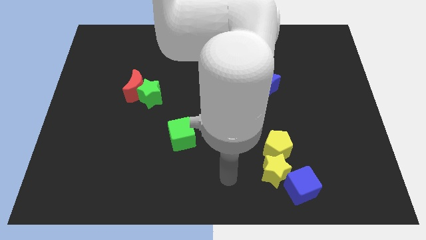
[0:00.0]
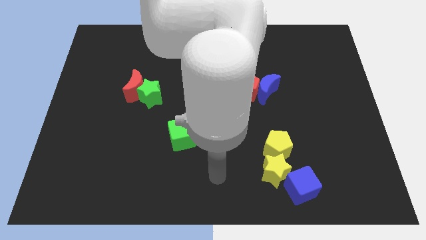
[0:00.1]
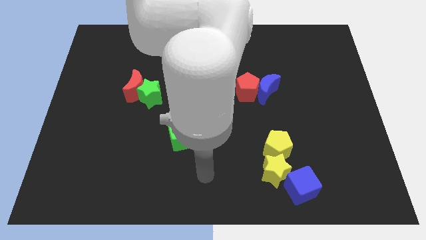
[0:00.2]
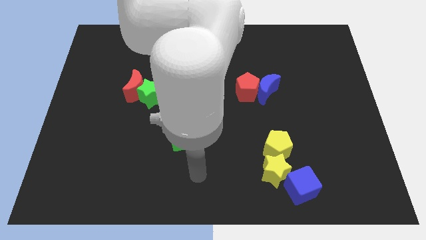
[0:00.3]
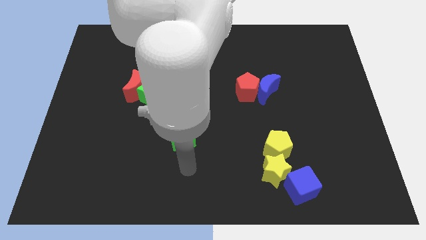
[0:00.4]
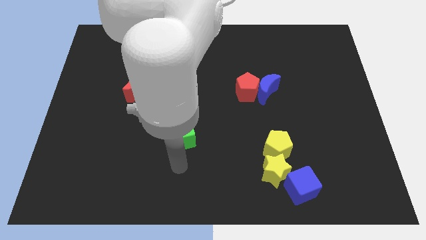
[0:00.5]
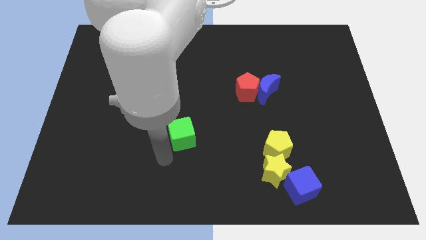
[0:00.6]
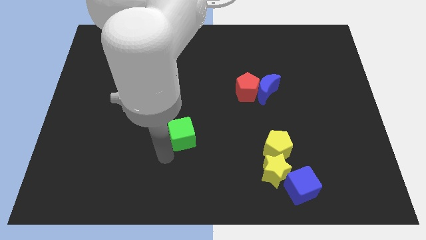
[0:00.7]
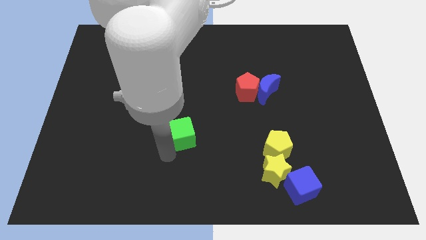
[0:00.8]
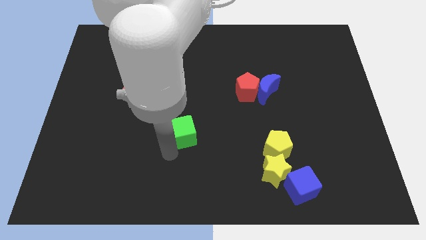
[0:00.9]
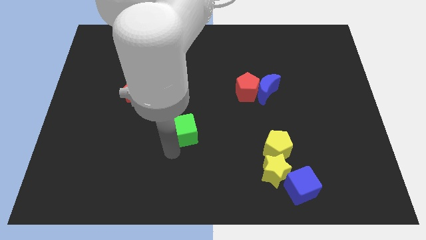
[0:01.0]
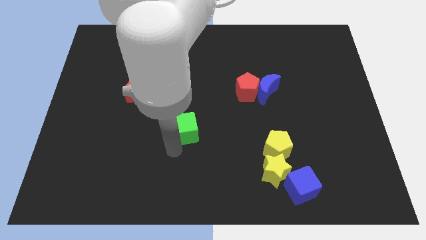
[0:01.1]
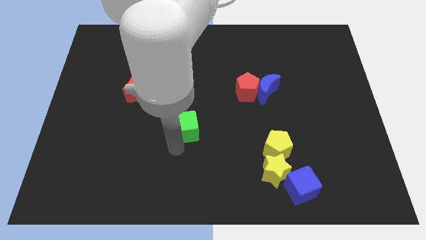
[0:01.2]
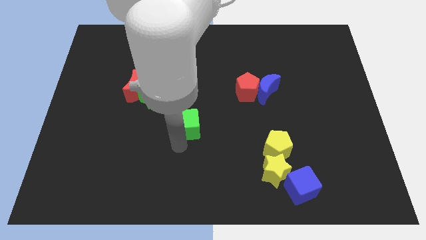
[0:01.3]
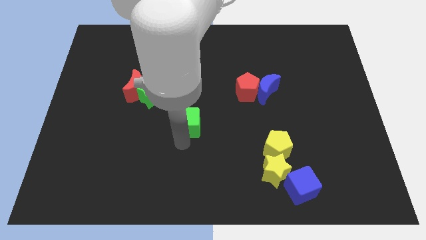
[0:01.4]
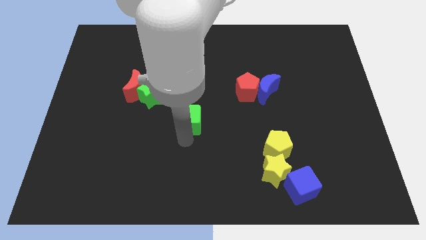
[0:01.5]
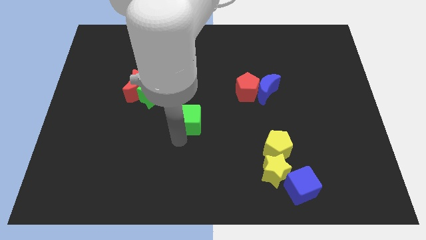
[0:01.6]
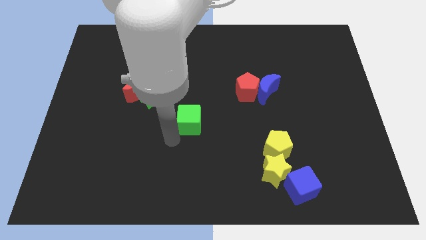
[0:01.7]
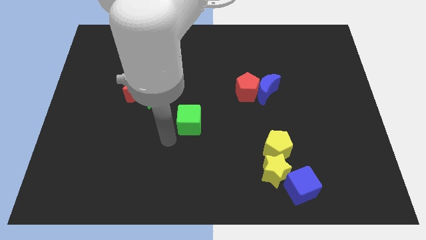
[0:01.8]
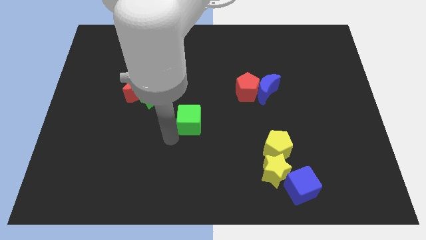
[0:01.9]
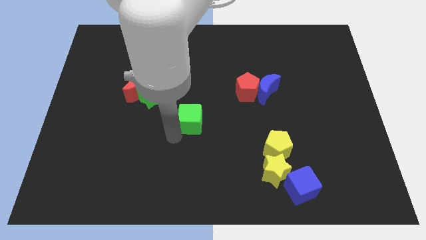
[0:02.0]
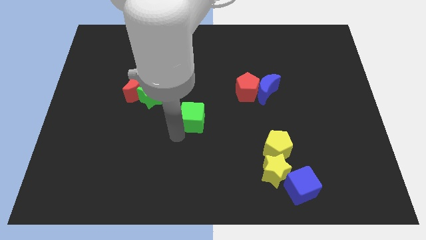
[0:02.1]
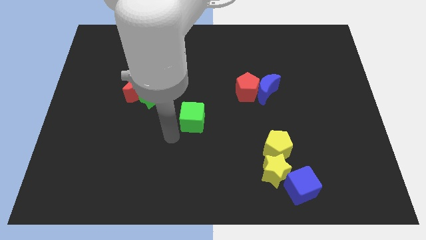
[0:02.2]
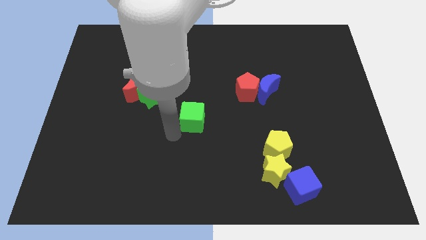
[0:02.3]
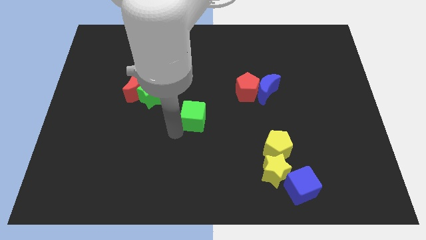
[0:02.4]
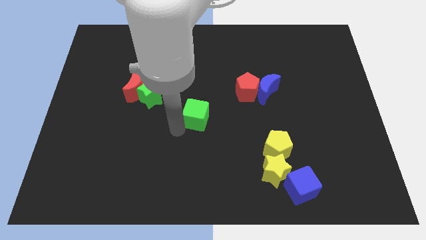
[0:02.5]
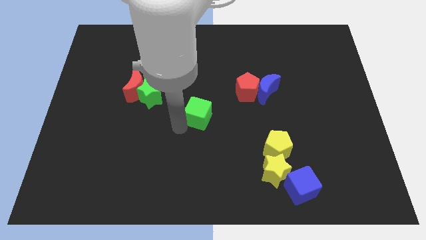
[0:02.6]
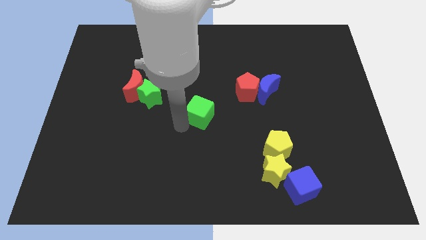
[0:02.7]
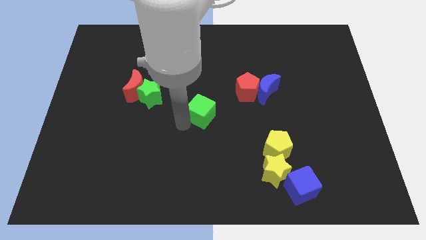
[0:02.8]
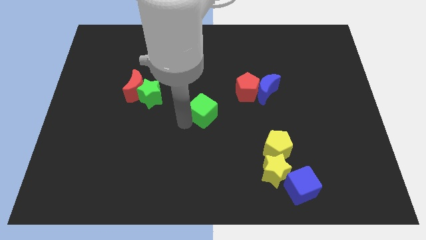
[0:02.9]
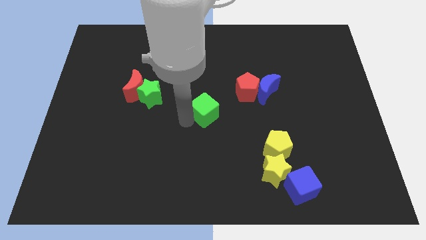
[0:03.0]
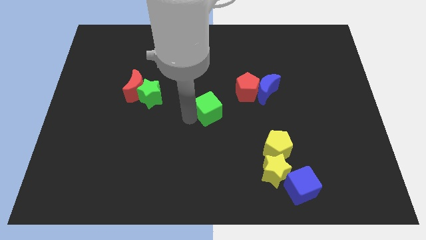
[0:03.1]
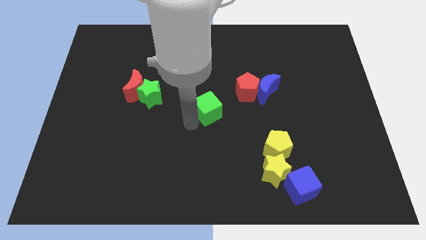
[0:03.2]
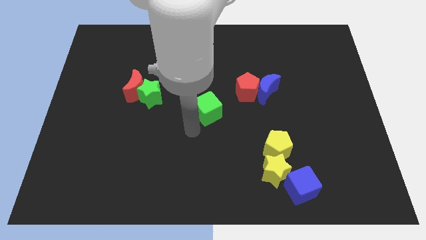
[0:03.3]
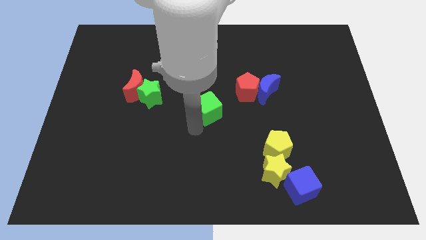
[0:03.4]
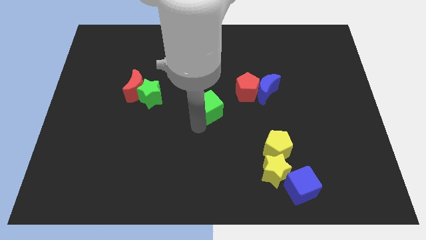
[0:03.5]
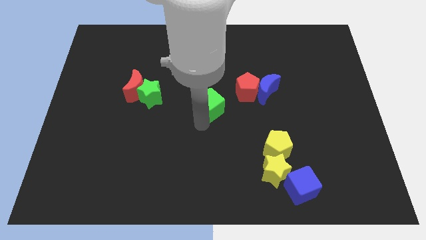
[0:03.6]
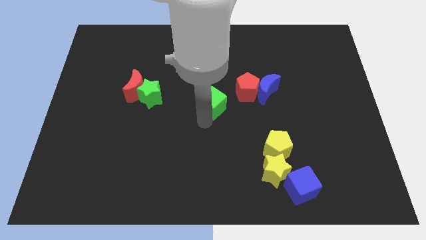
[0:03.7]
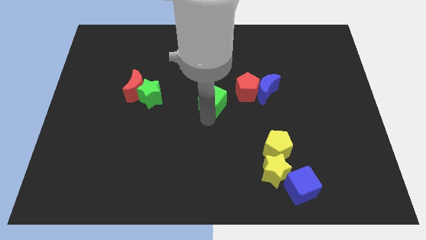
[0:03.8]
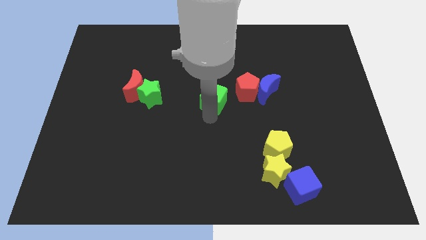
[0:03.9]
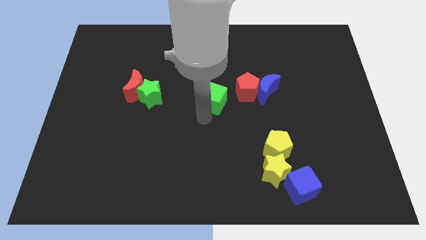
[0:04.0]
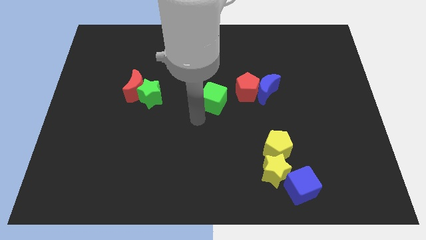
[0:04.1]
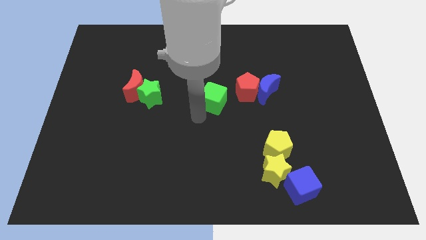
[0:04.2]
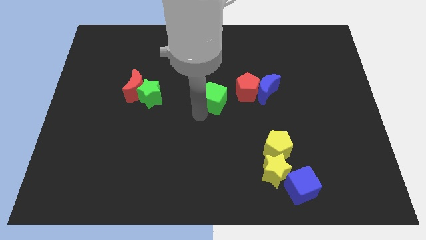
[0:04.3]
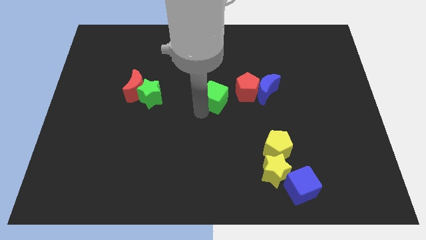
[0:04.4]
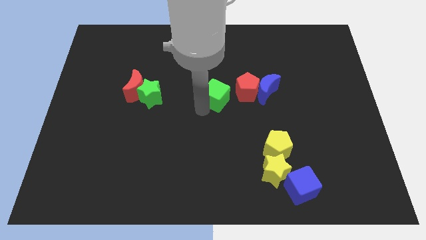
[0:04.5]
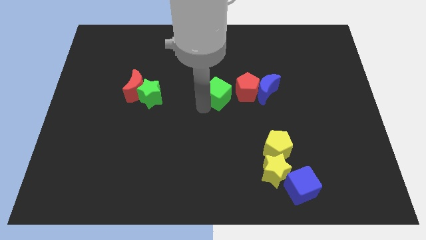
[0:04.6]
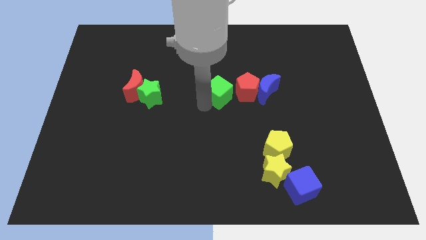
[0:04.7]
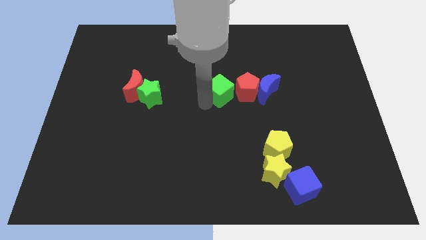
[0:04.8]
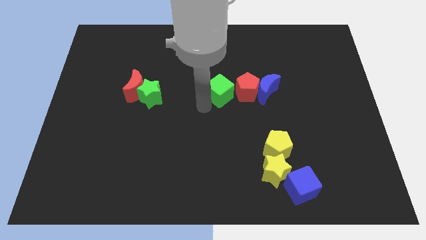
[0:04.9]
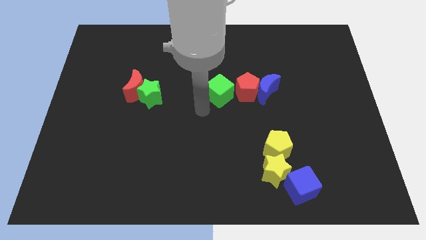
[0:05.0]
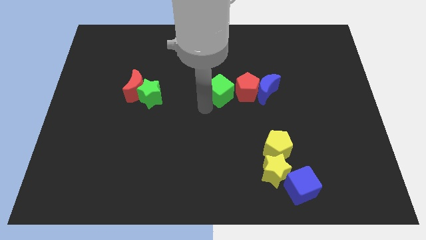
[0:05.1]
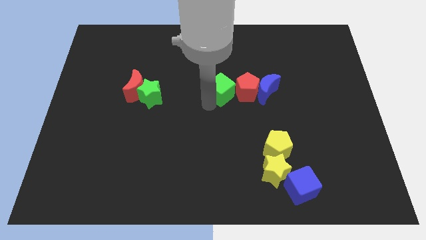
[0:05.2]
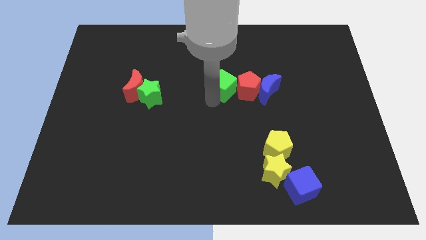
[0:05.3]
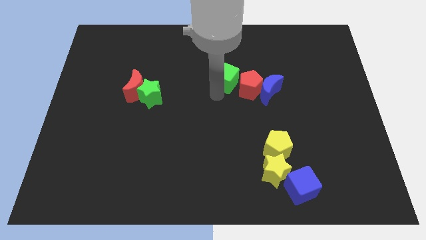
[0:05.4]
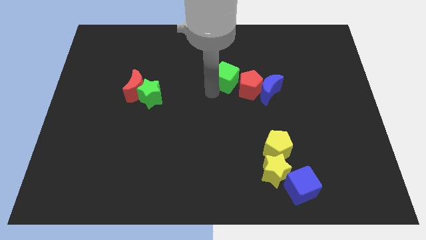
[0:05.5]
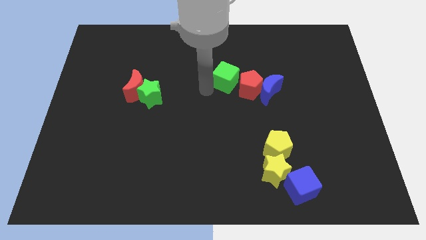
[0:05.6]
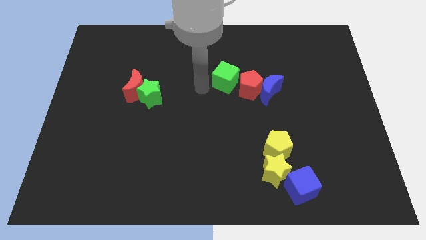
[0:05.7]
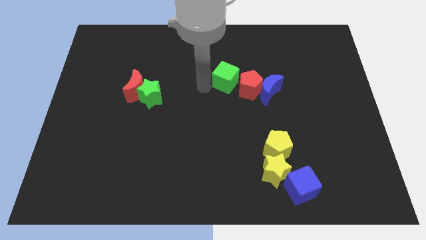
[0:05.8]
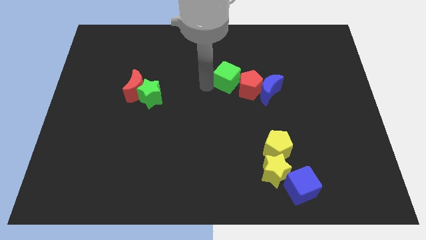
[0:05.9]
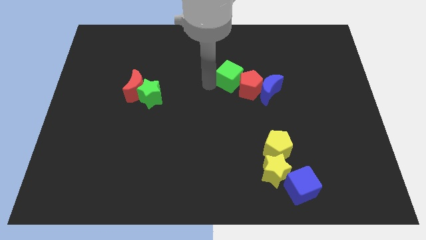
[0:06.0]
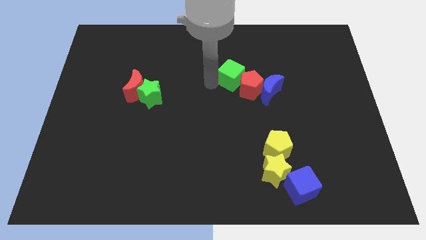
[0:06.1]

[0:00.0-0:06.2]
push the green cube up and then right

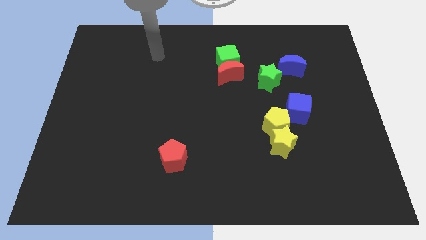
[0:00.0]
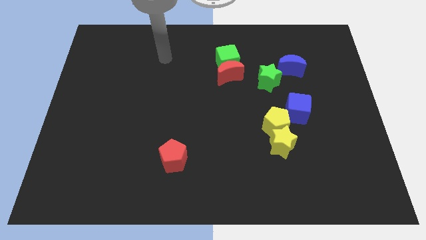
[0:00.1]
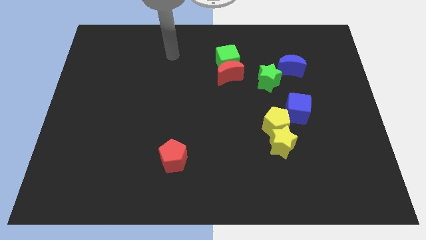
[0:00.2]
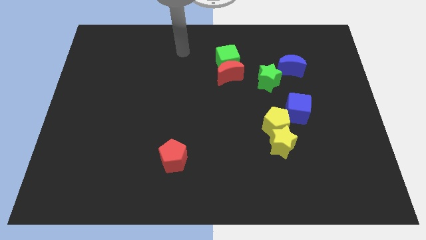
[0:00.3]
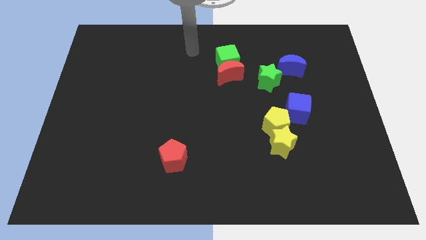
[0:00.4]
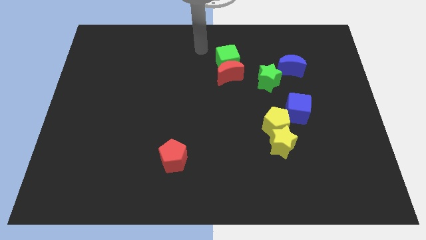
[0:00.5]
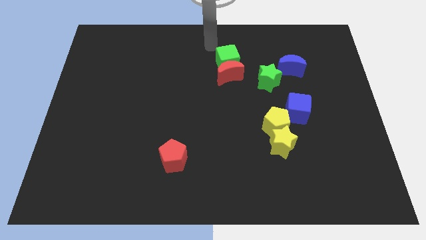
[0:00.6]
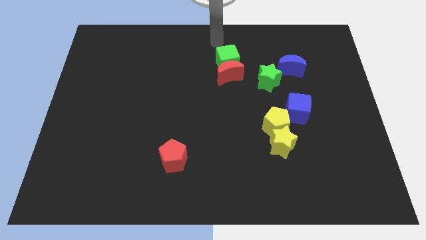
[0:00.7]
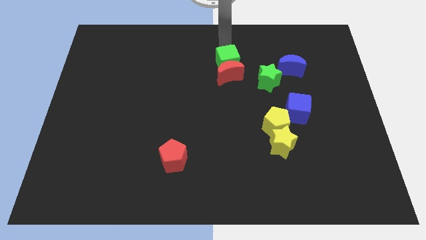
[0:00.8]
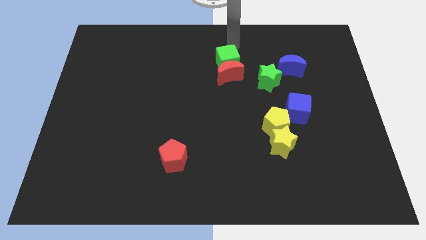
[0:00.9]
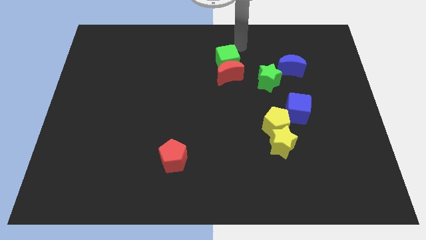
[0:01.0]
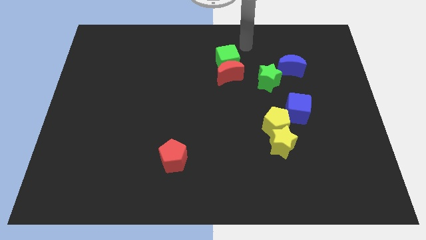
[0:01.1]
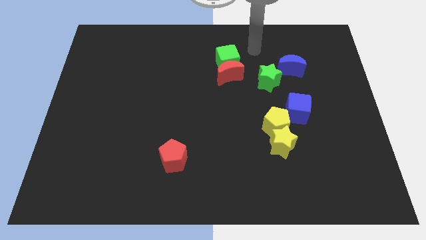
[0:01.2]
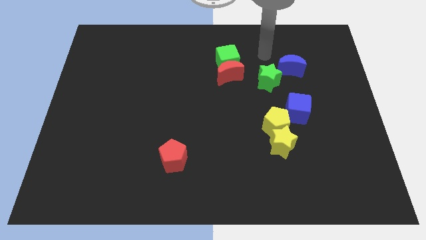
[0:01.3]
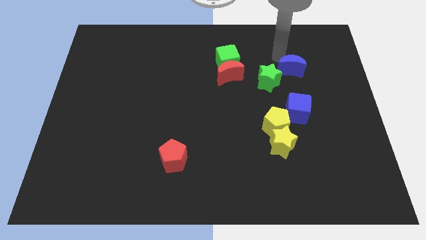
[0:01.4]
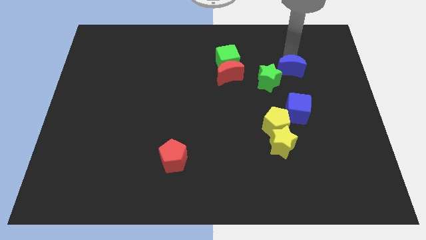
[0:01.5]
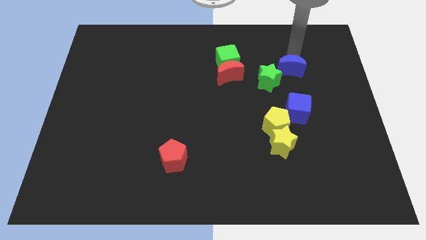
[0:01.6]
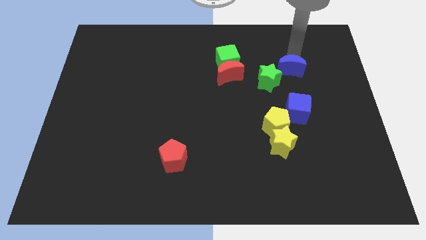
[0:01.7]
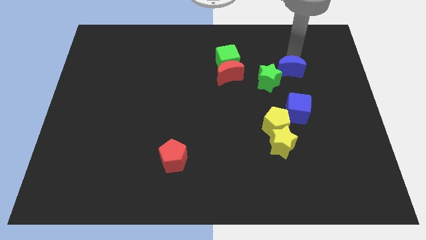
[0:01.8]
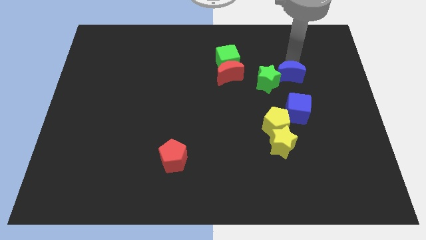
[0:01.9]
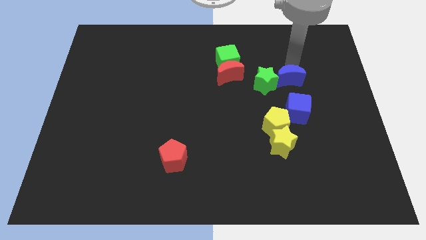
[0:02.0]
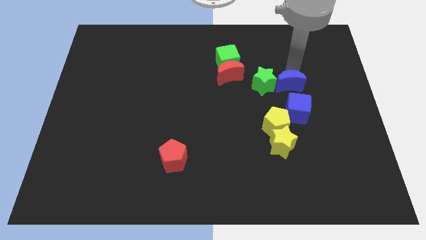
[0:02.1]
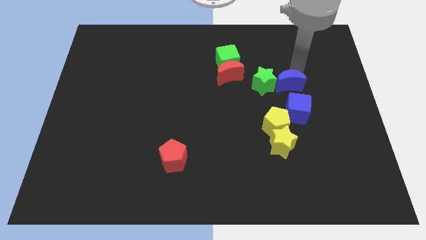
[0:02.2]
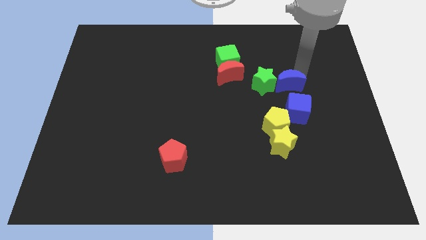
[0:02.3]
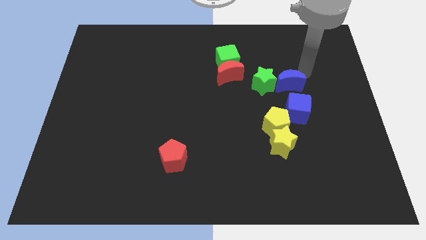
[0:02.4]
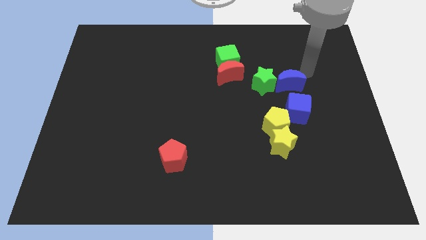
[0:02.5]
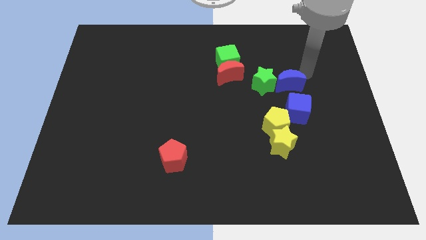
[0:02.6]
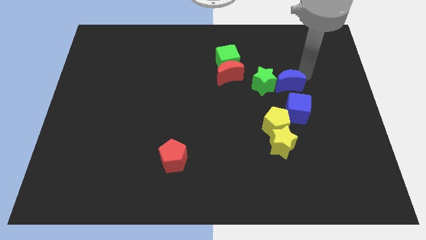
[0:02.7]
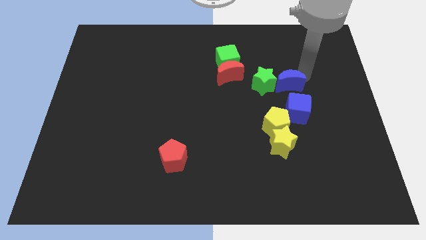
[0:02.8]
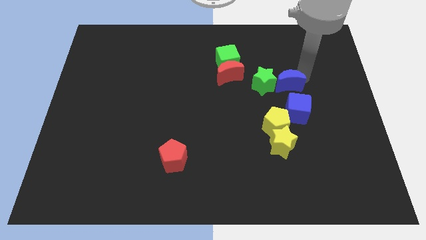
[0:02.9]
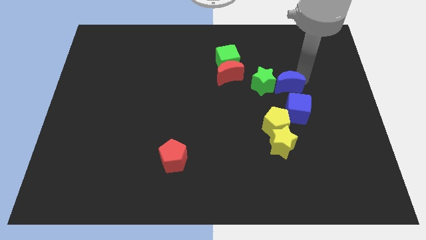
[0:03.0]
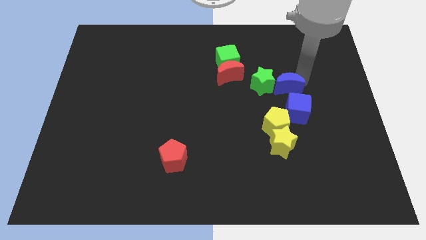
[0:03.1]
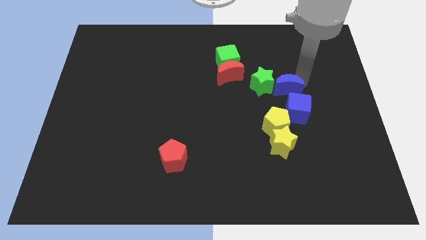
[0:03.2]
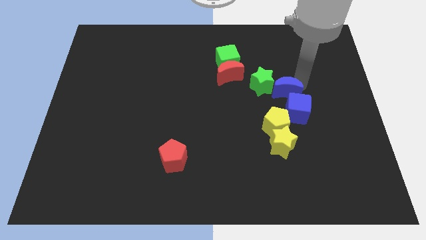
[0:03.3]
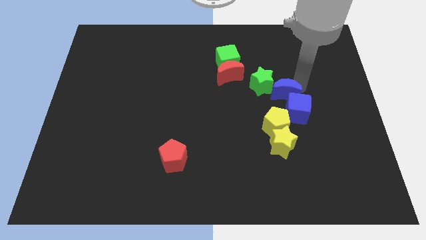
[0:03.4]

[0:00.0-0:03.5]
slightly slide the blue moon down and then to the left
